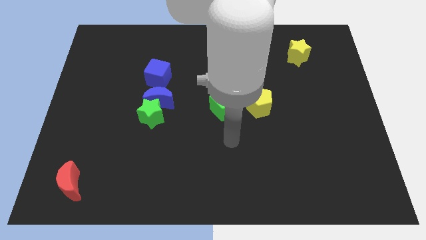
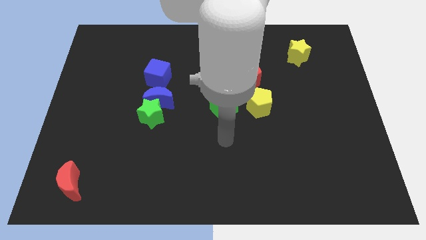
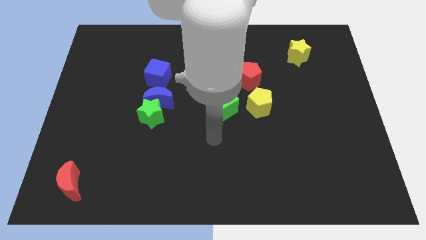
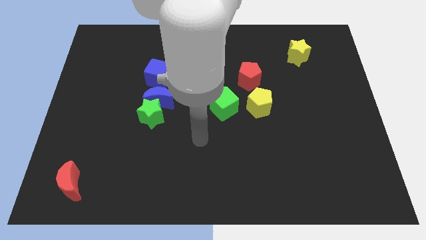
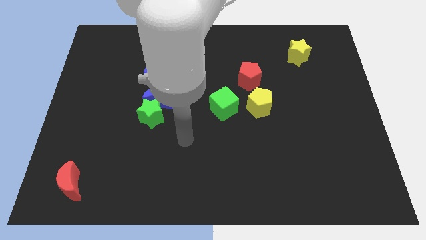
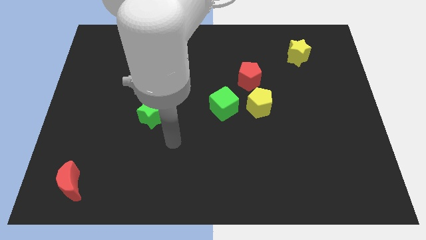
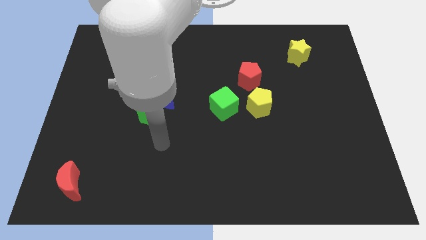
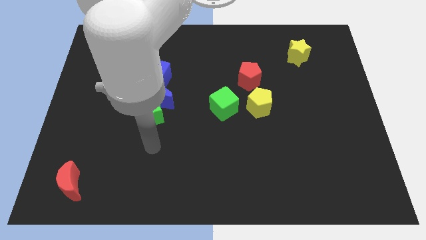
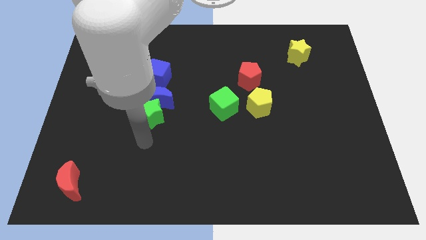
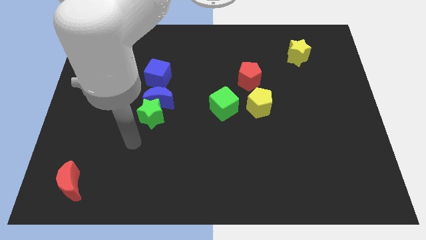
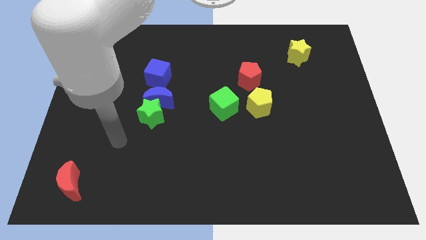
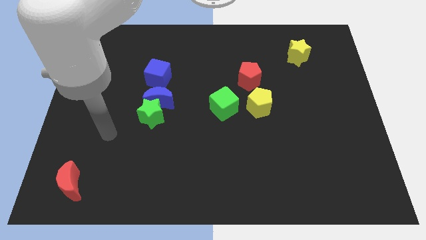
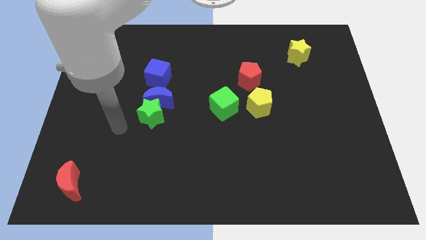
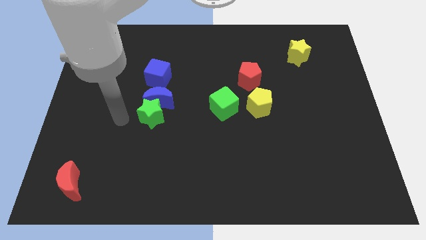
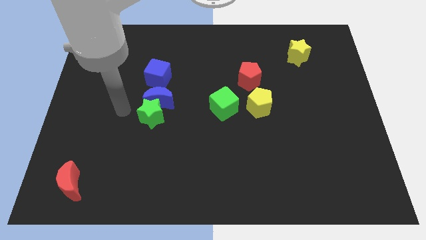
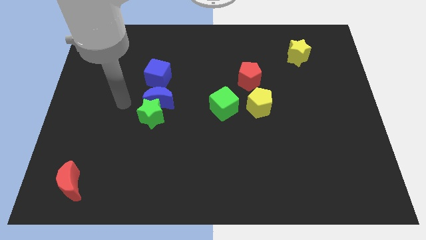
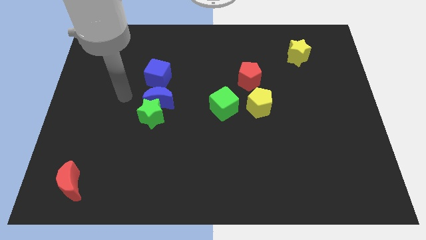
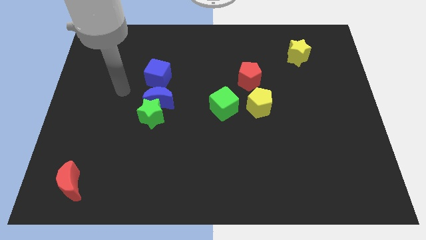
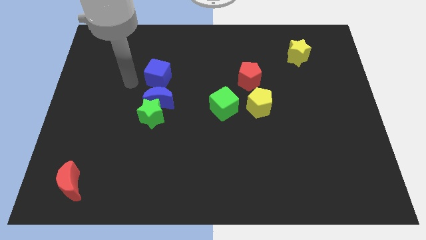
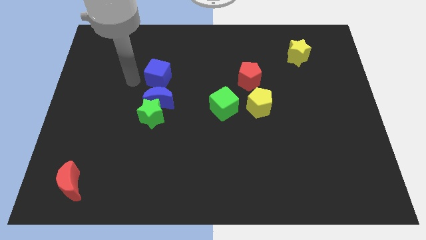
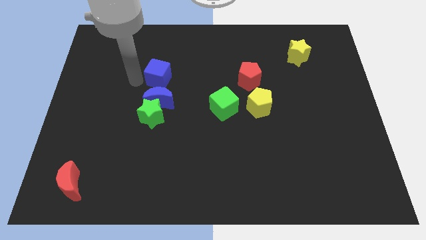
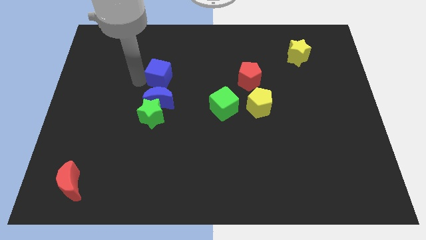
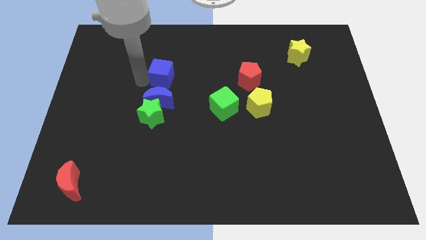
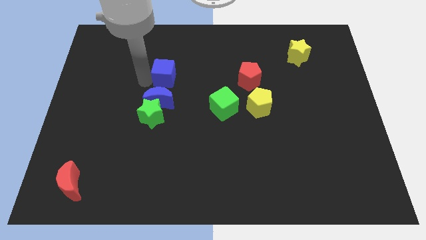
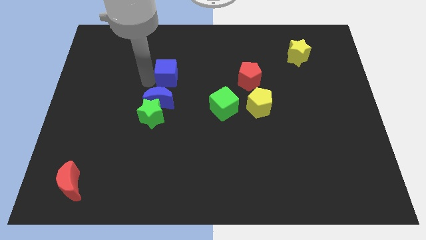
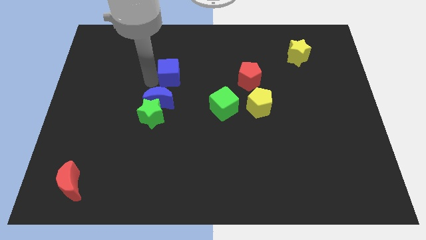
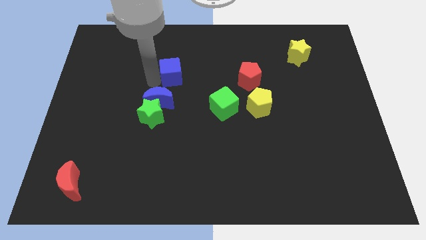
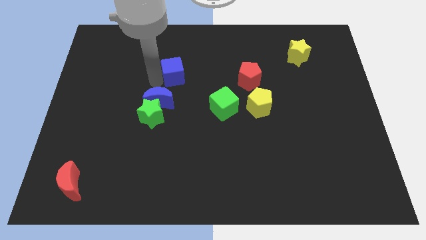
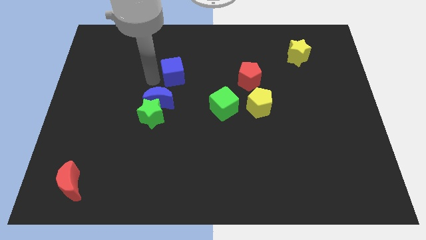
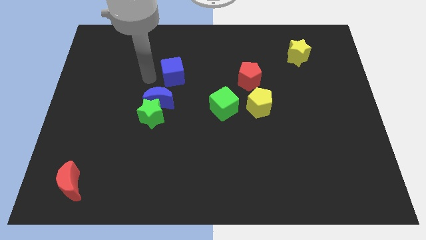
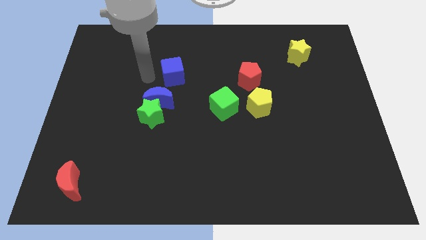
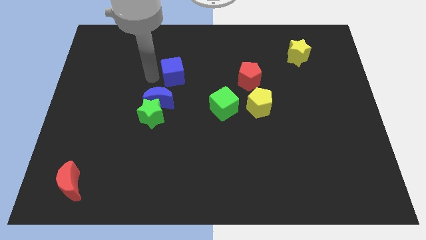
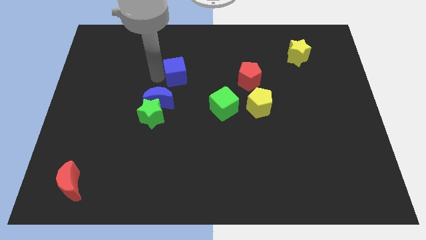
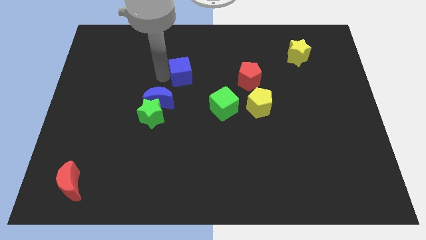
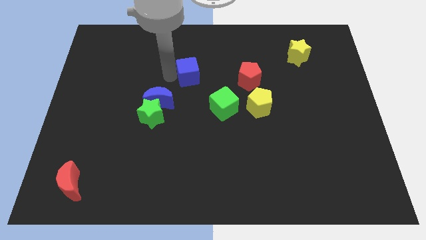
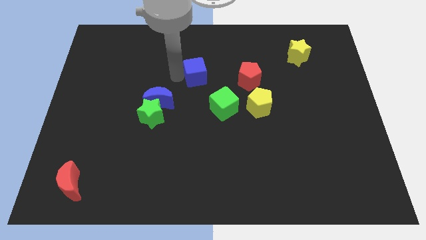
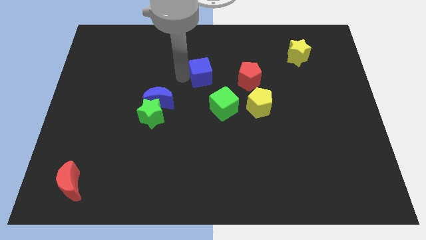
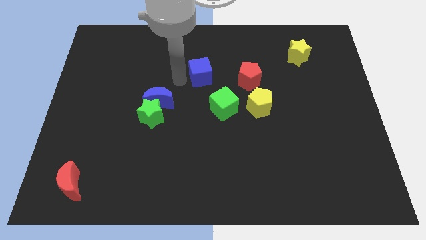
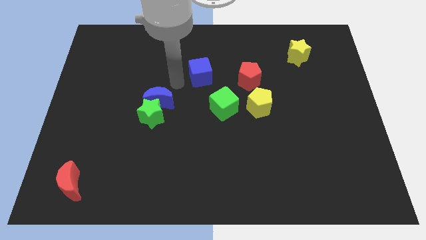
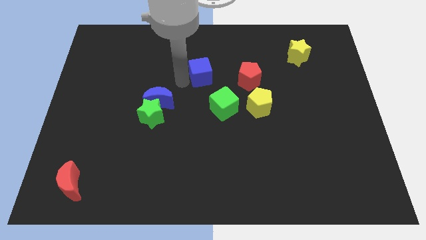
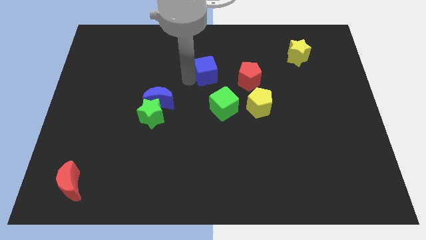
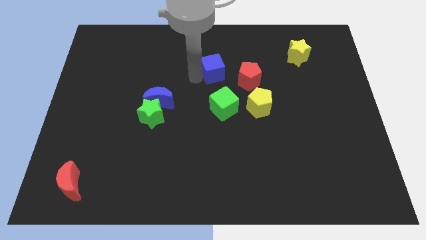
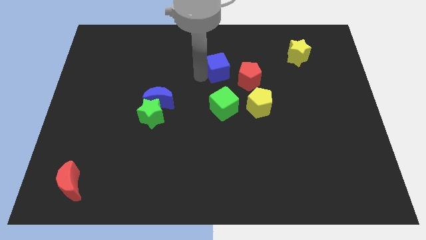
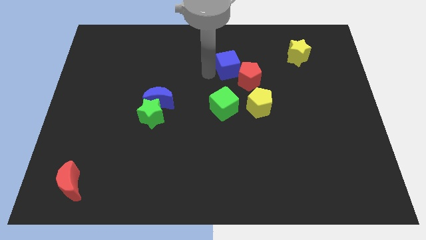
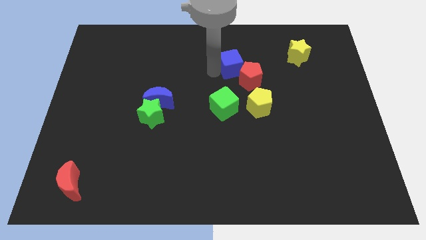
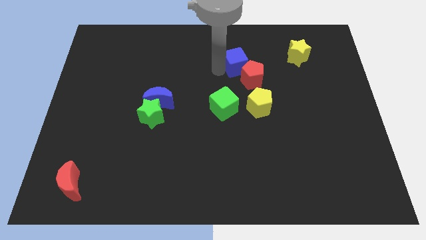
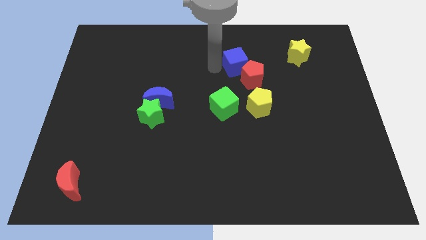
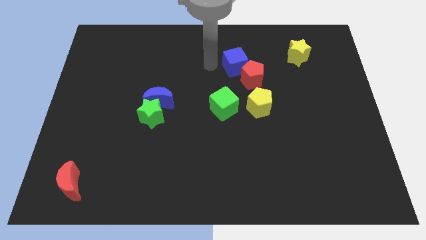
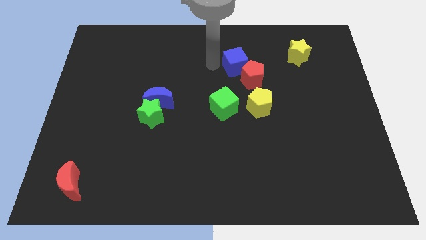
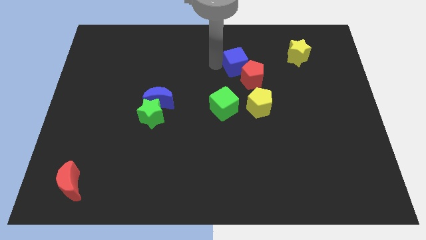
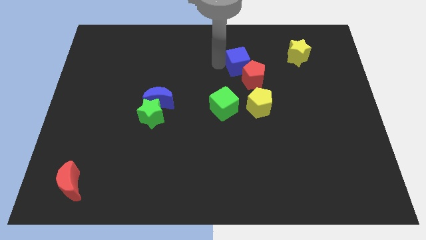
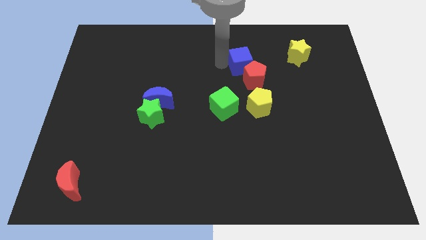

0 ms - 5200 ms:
push the blue cube to the right

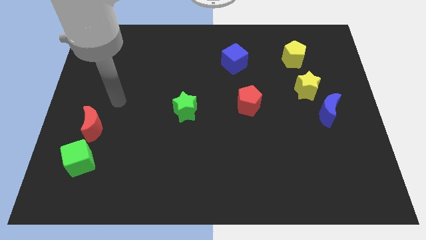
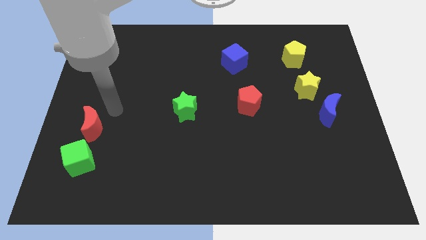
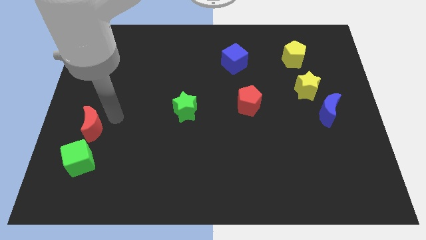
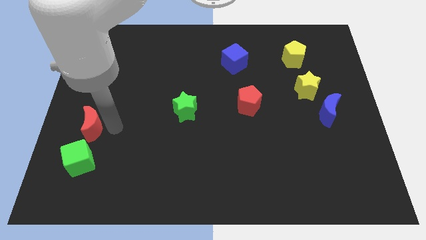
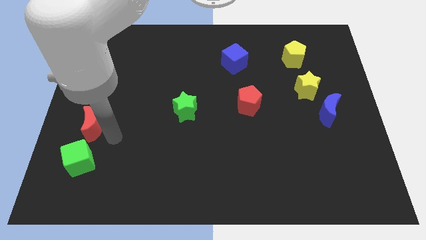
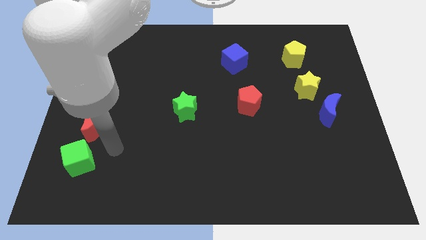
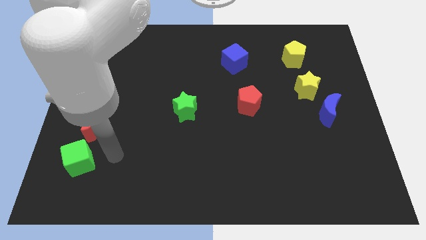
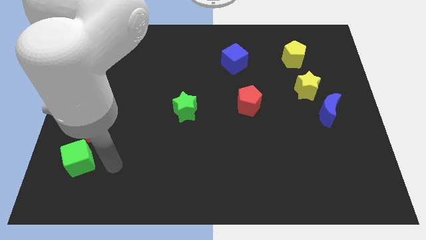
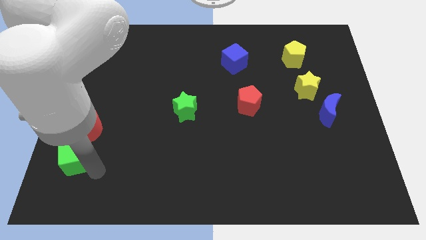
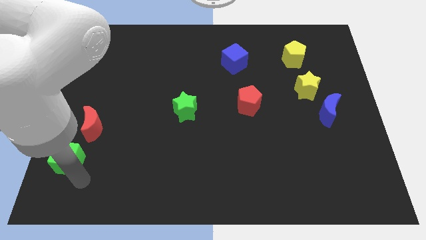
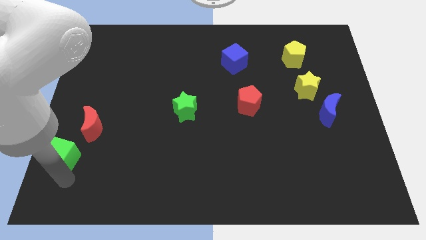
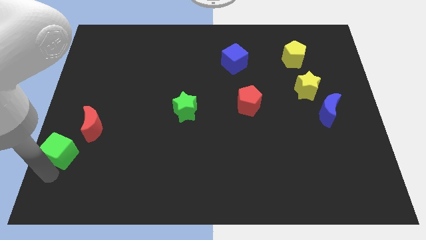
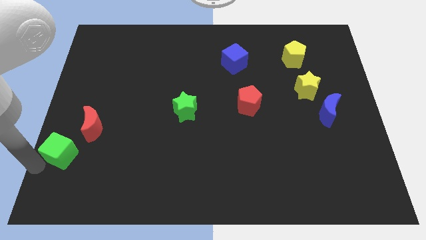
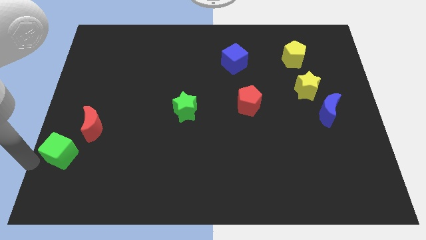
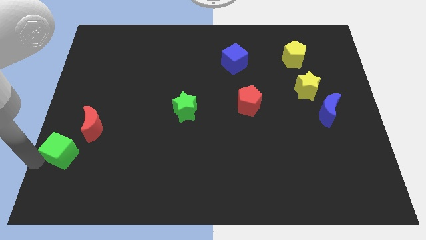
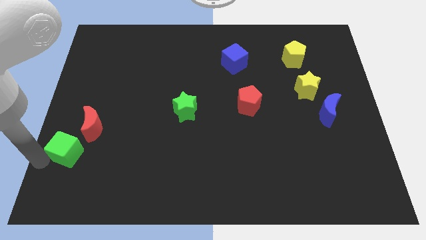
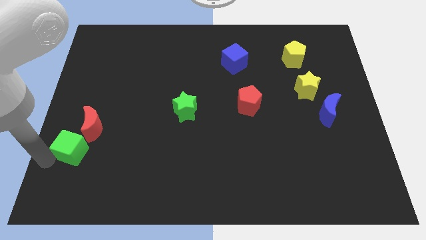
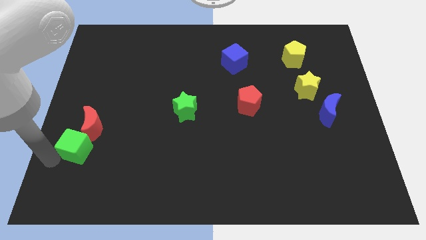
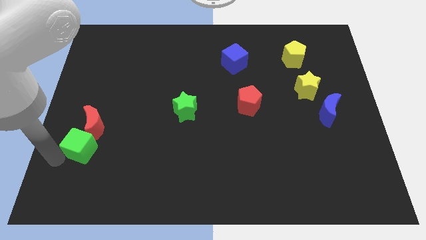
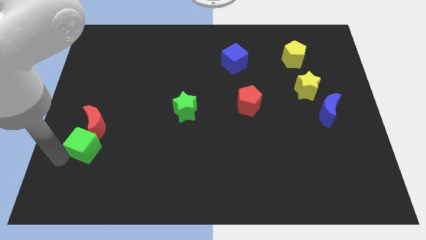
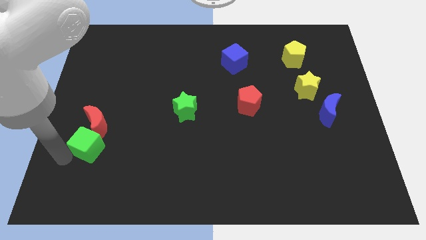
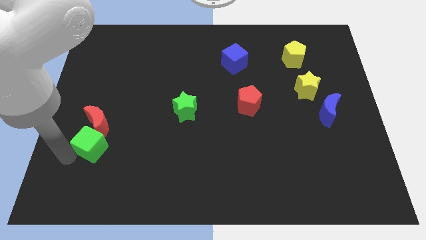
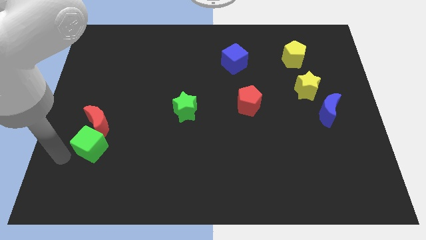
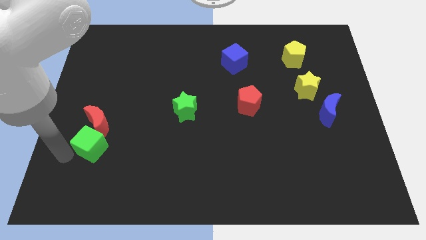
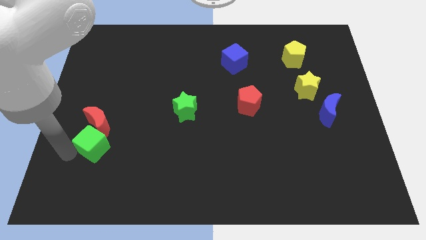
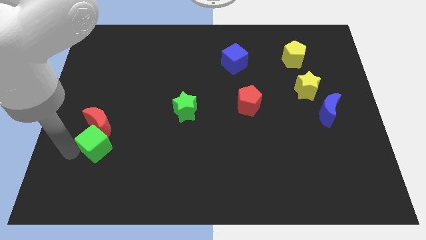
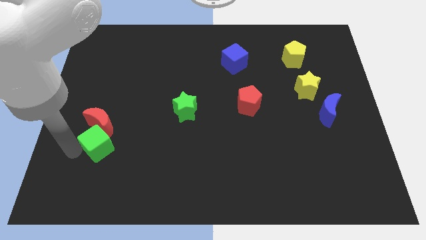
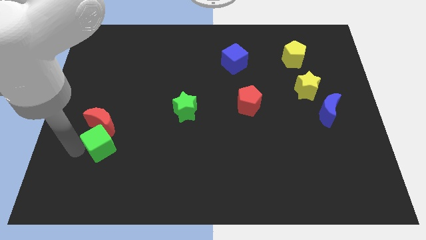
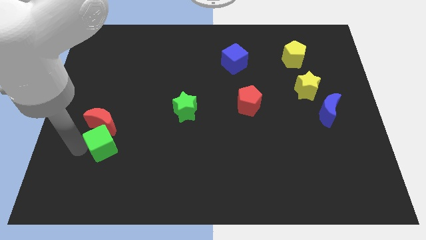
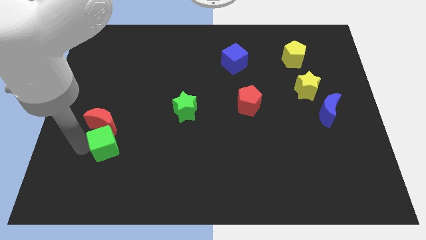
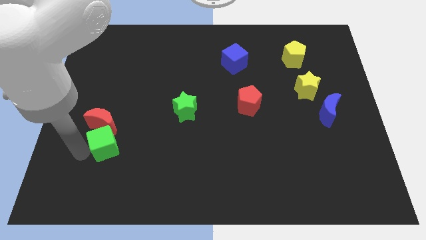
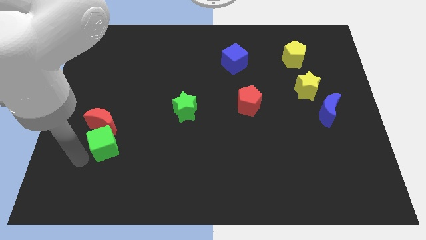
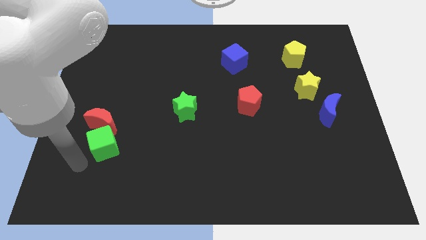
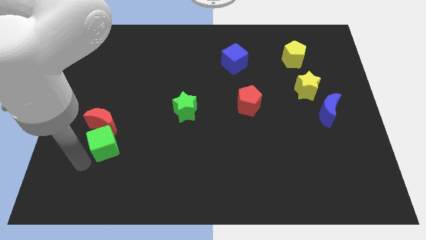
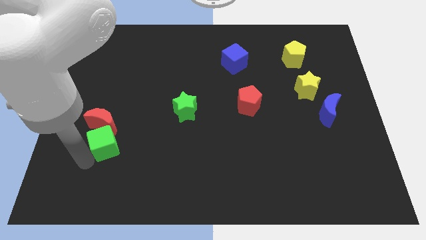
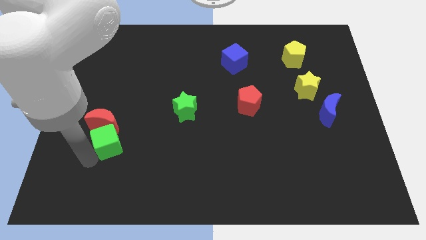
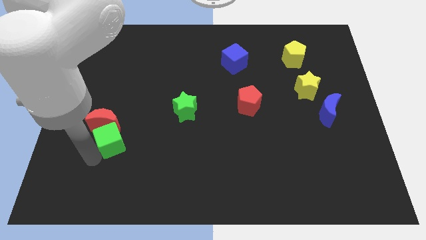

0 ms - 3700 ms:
slightly push the green cube upwards and right
